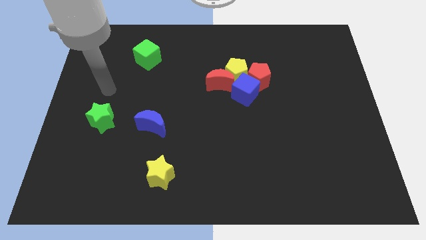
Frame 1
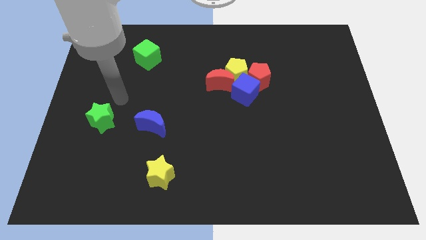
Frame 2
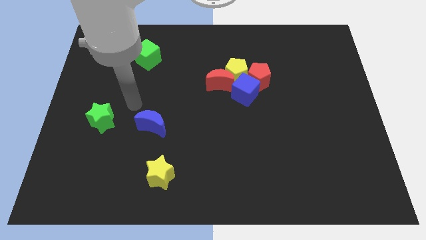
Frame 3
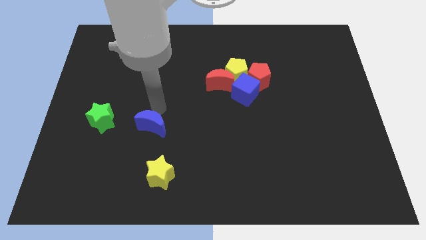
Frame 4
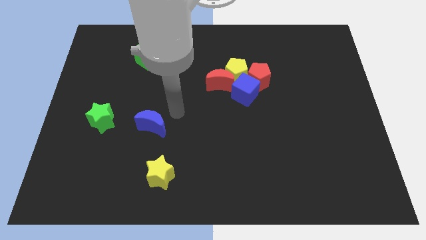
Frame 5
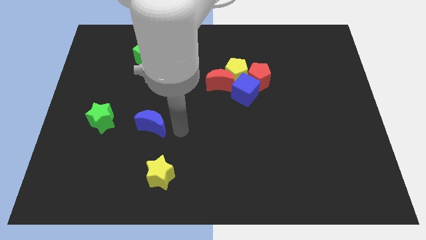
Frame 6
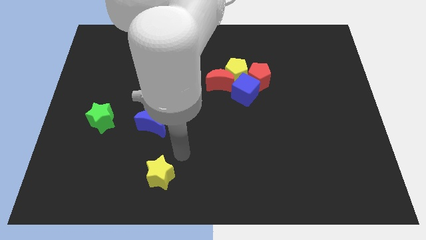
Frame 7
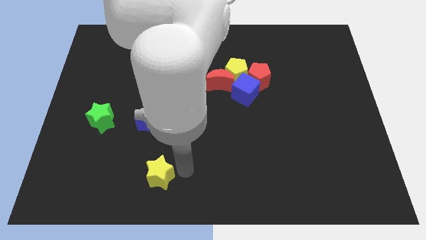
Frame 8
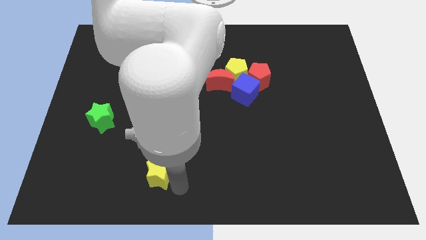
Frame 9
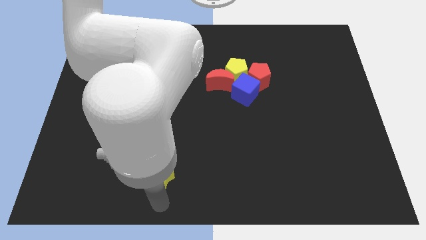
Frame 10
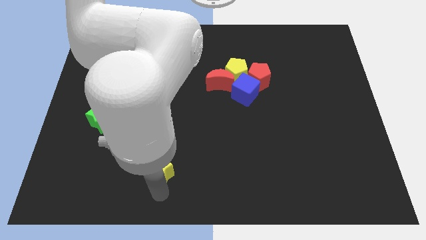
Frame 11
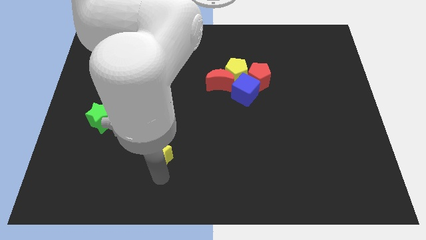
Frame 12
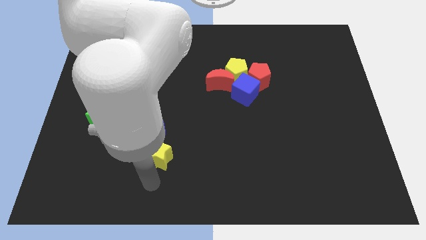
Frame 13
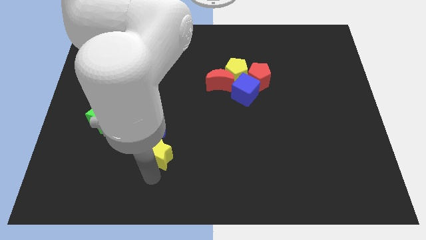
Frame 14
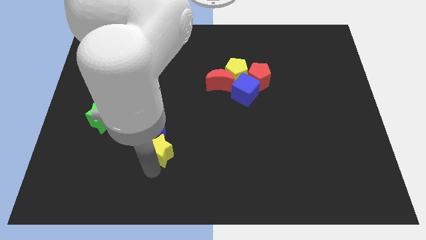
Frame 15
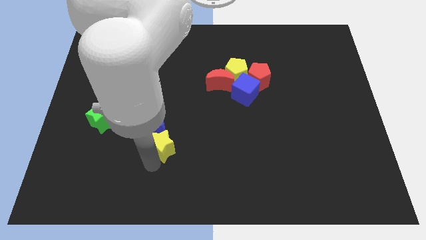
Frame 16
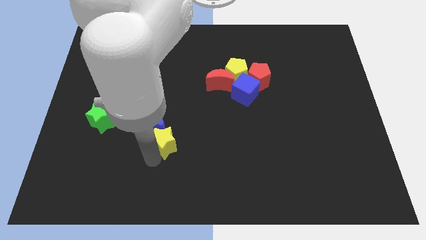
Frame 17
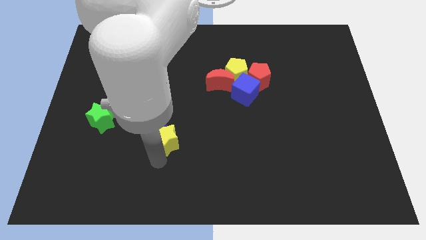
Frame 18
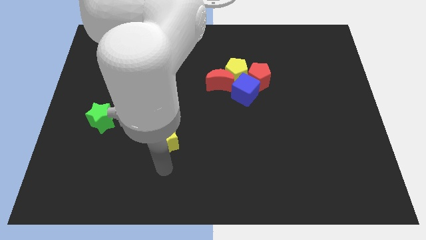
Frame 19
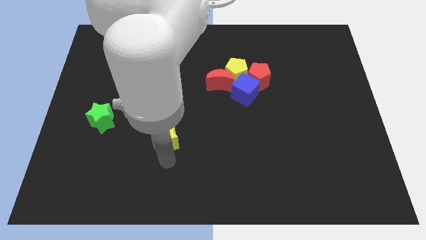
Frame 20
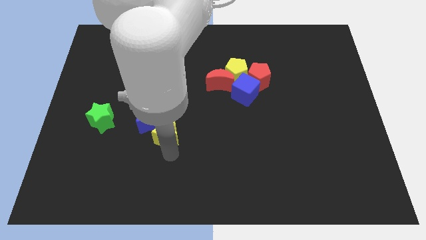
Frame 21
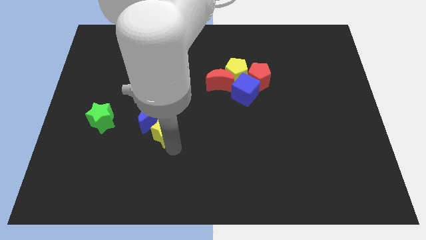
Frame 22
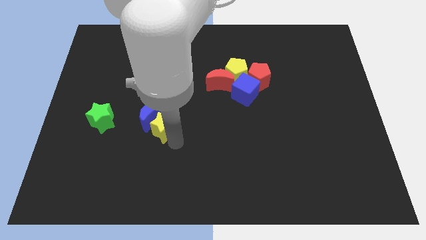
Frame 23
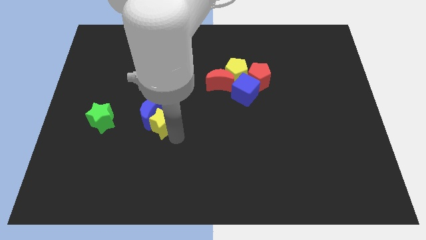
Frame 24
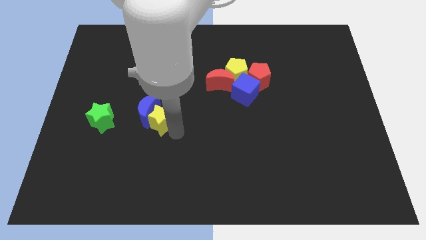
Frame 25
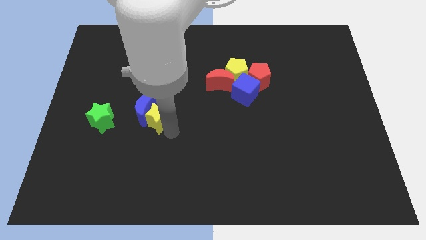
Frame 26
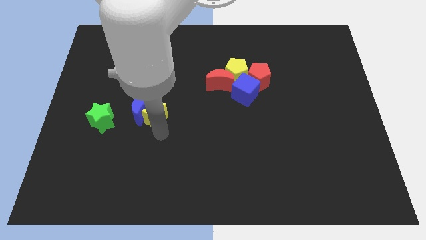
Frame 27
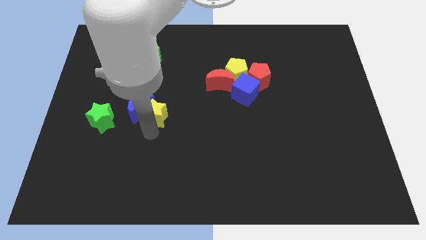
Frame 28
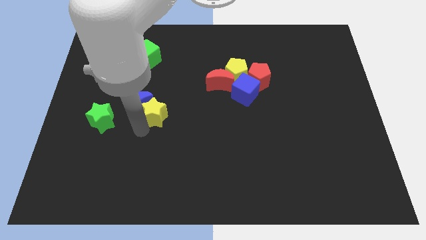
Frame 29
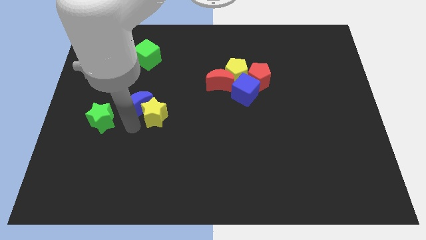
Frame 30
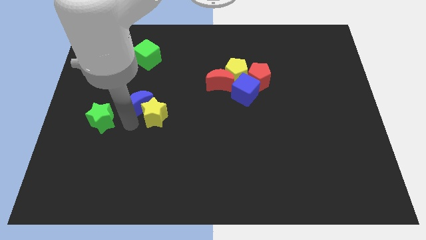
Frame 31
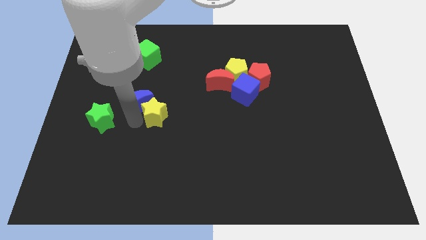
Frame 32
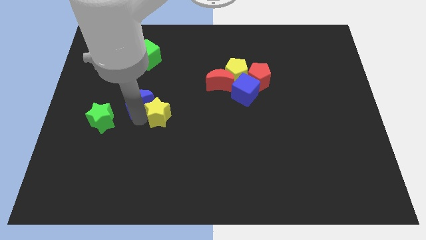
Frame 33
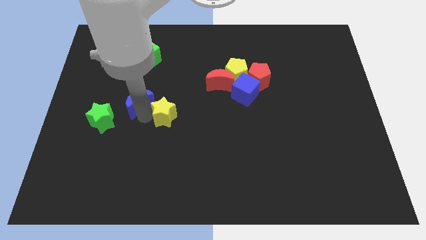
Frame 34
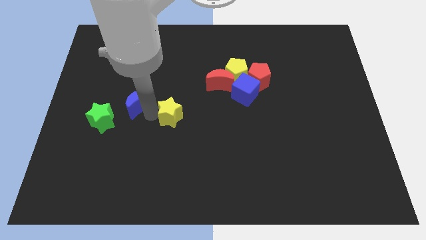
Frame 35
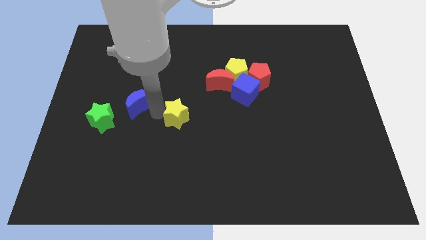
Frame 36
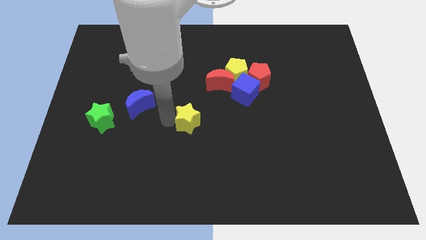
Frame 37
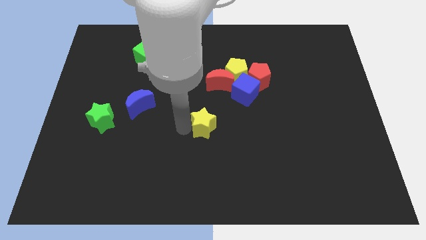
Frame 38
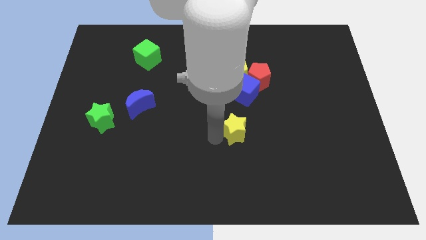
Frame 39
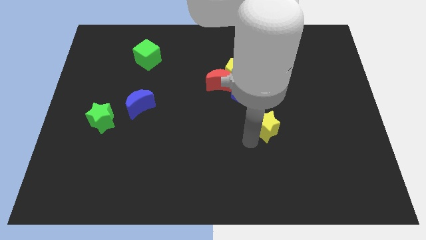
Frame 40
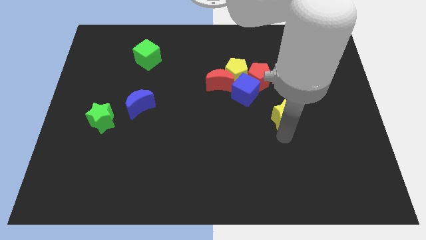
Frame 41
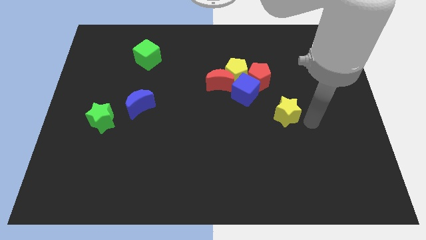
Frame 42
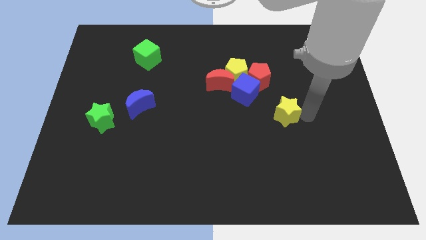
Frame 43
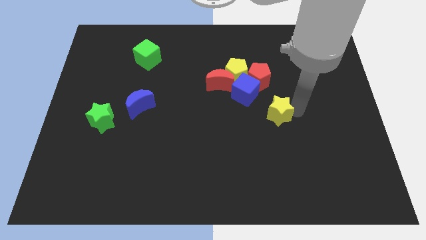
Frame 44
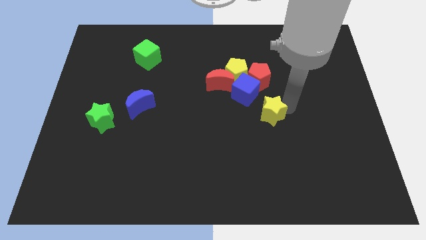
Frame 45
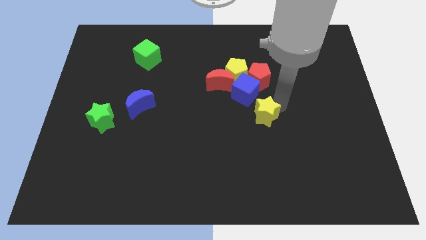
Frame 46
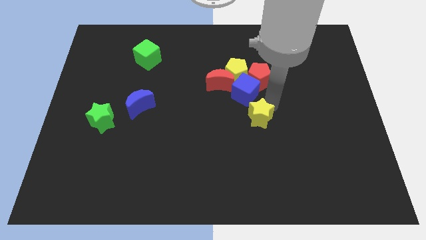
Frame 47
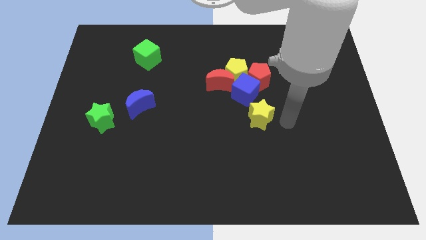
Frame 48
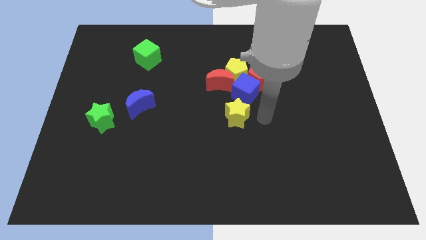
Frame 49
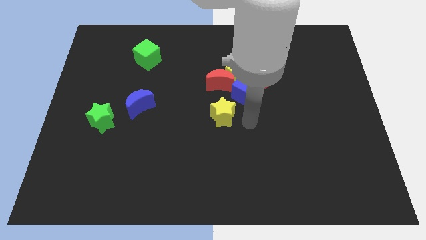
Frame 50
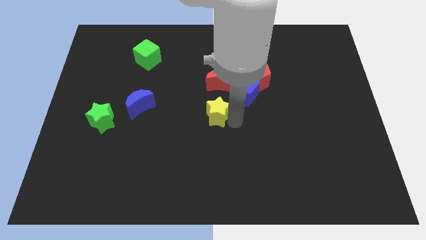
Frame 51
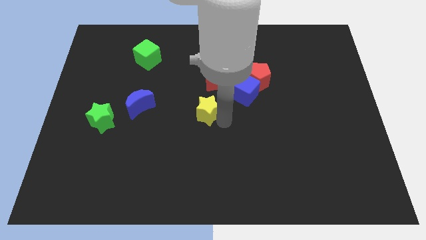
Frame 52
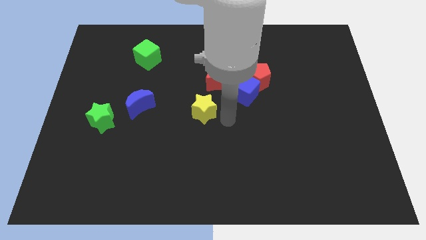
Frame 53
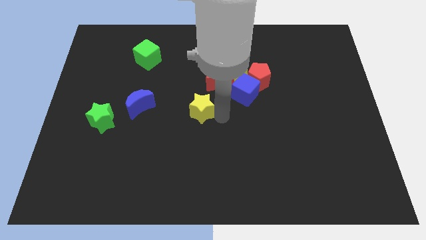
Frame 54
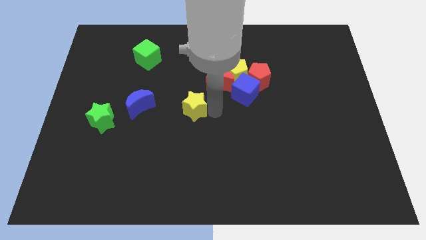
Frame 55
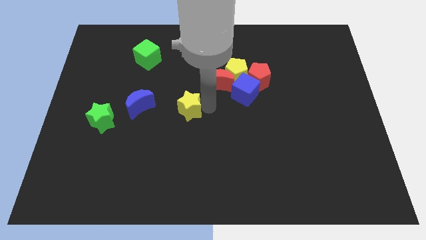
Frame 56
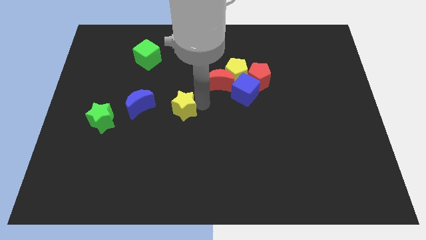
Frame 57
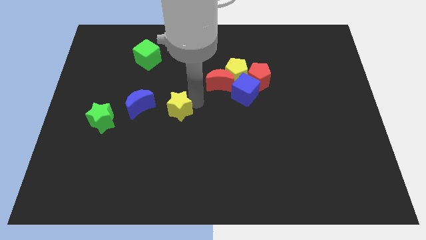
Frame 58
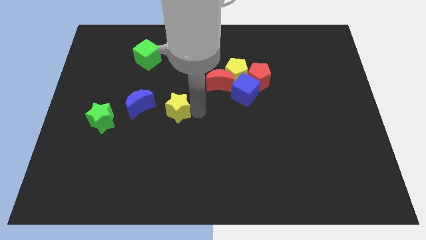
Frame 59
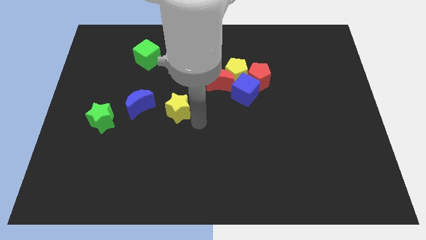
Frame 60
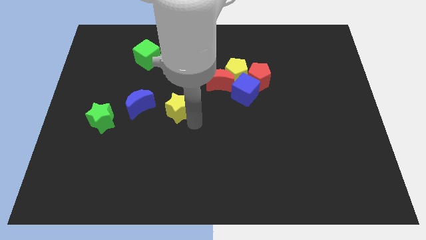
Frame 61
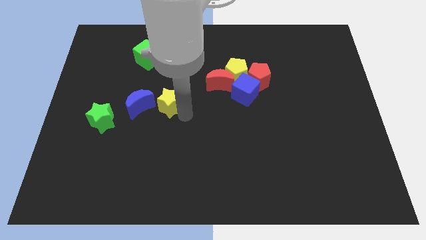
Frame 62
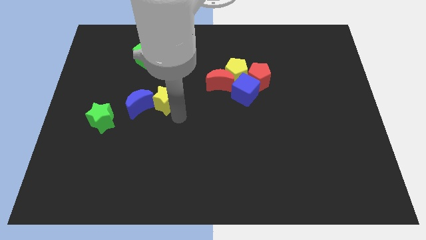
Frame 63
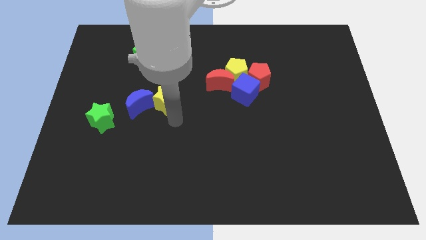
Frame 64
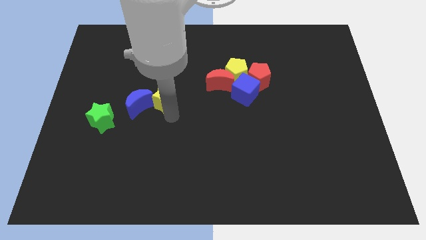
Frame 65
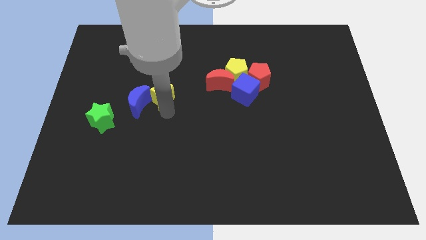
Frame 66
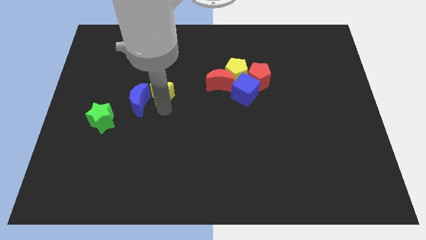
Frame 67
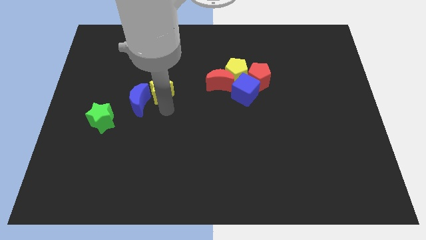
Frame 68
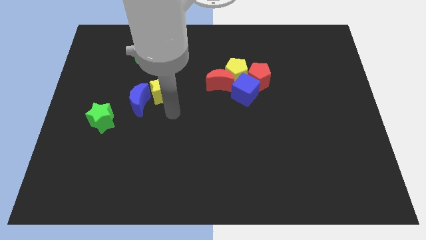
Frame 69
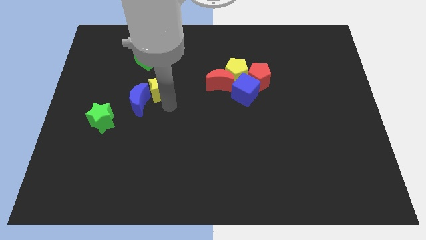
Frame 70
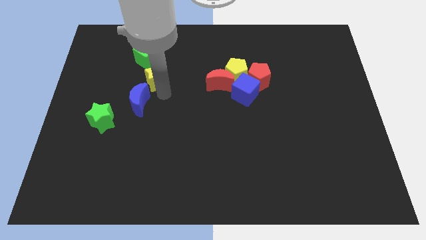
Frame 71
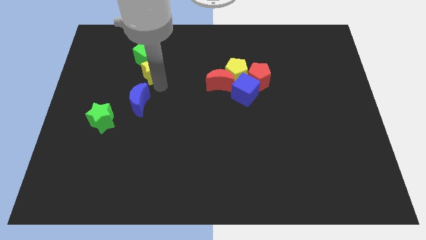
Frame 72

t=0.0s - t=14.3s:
move the yellow star next to the green cube
